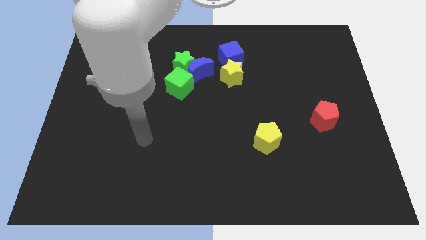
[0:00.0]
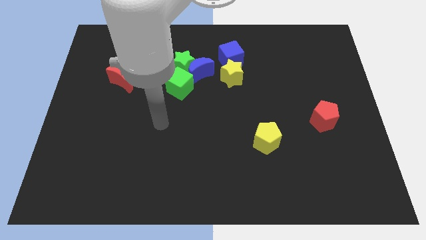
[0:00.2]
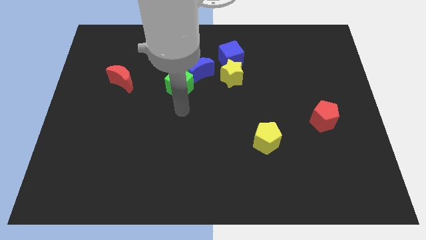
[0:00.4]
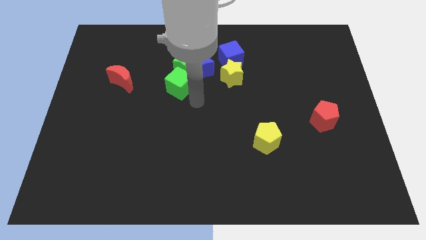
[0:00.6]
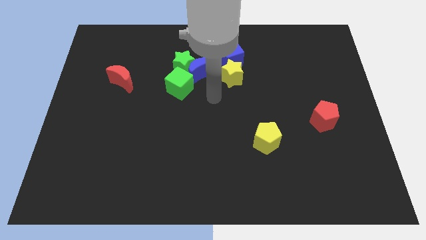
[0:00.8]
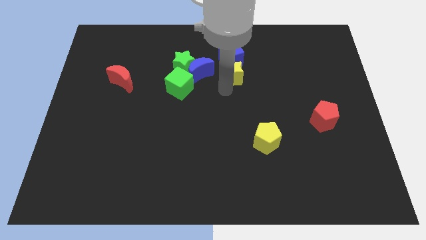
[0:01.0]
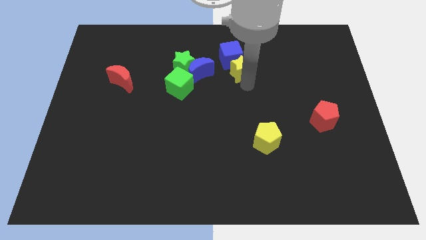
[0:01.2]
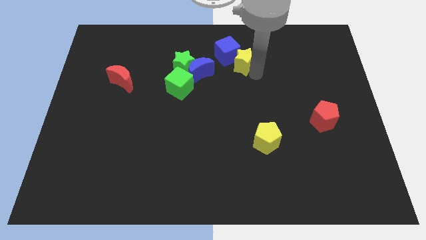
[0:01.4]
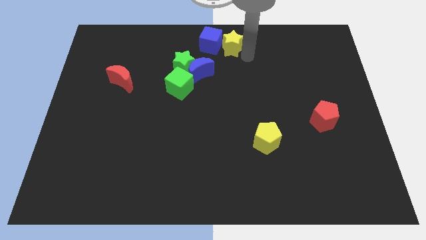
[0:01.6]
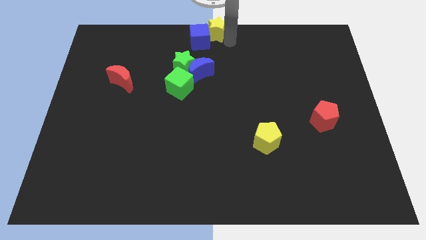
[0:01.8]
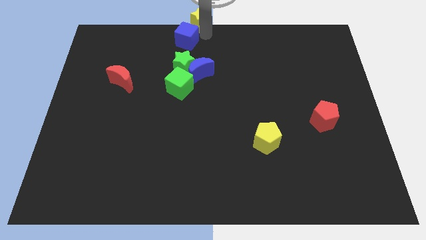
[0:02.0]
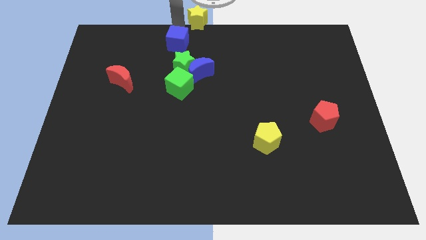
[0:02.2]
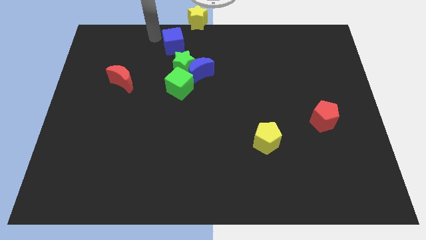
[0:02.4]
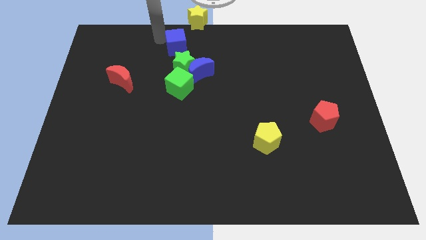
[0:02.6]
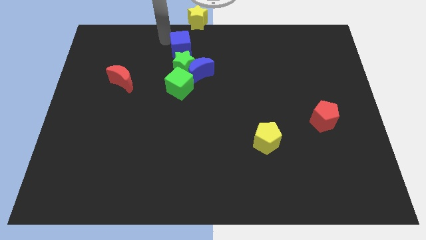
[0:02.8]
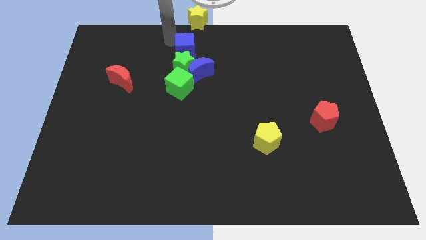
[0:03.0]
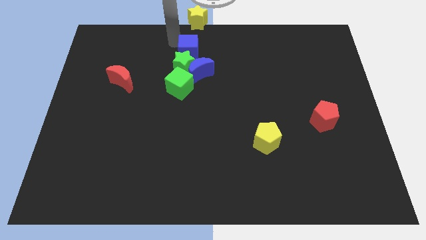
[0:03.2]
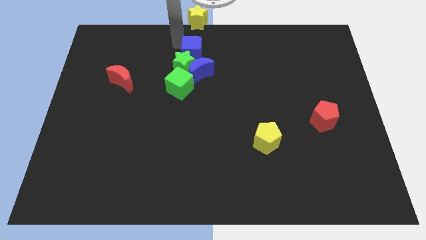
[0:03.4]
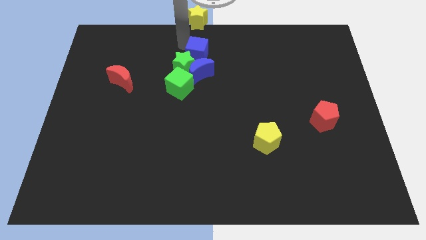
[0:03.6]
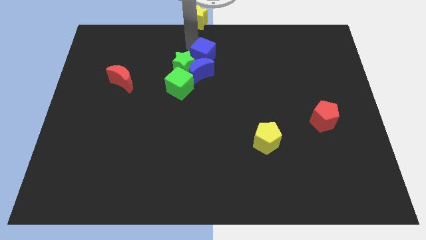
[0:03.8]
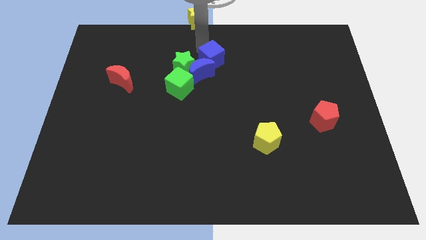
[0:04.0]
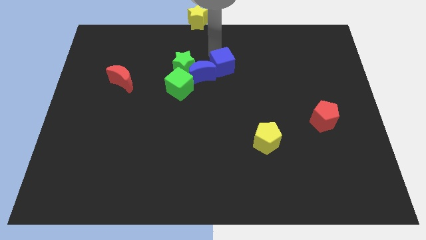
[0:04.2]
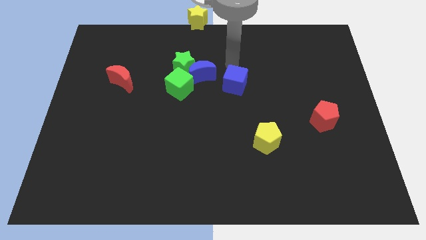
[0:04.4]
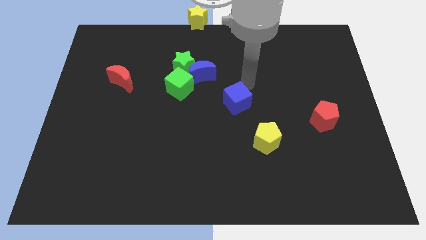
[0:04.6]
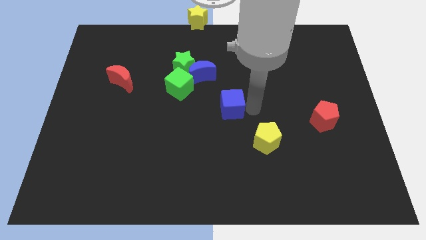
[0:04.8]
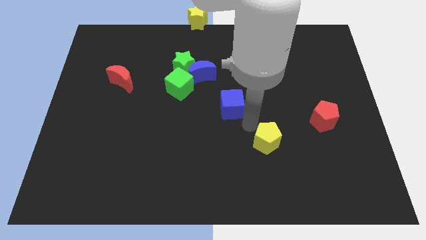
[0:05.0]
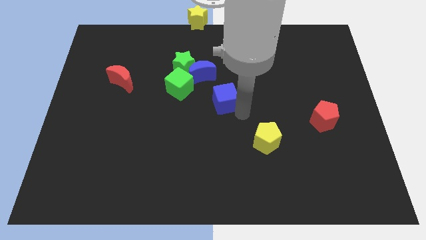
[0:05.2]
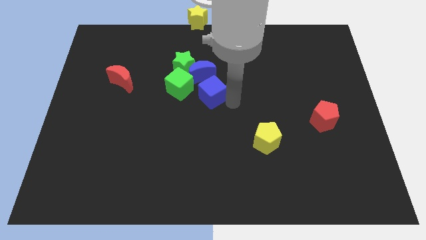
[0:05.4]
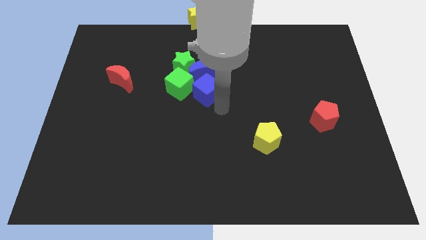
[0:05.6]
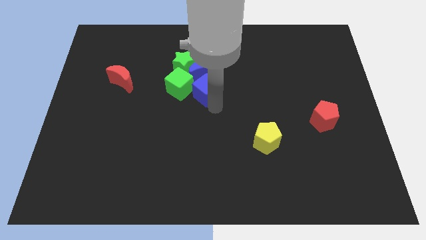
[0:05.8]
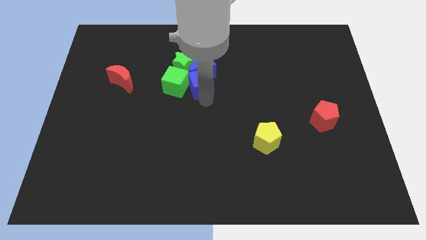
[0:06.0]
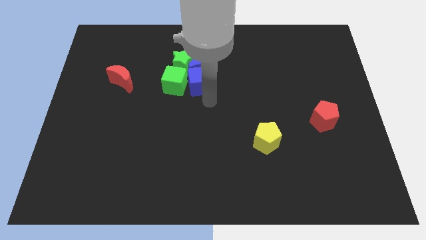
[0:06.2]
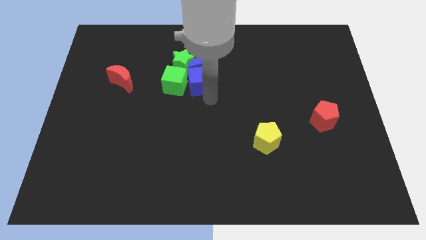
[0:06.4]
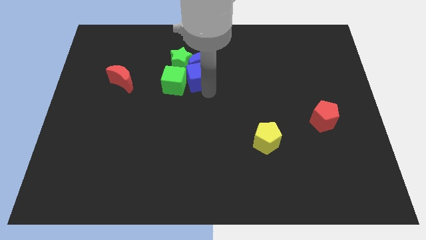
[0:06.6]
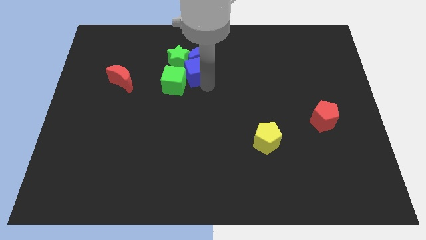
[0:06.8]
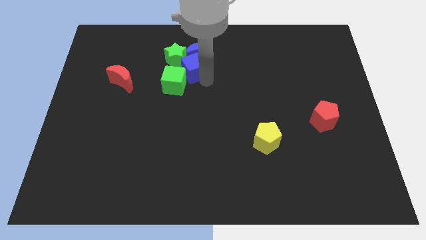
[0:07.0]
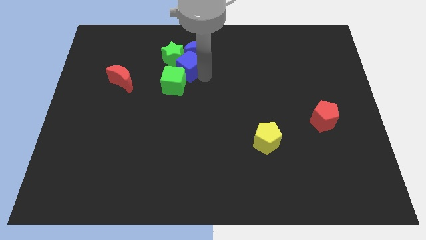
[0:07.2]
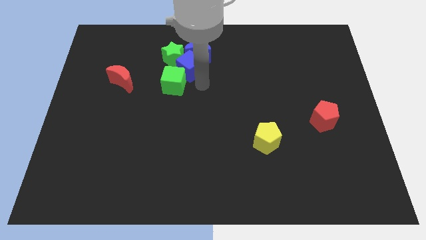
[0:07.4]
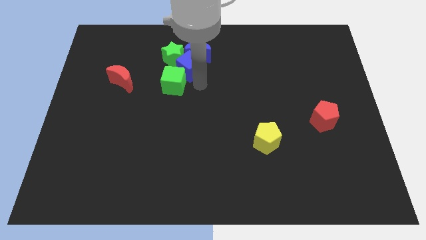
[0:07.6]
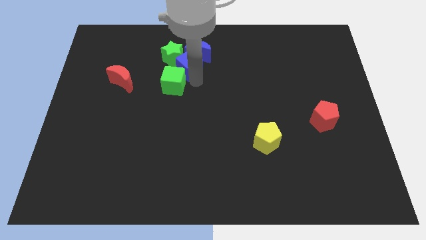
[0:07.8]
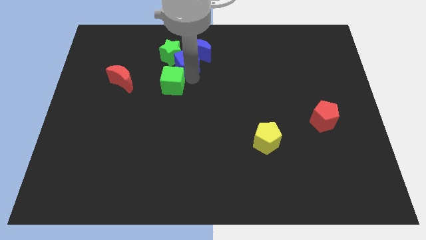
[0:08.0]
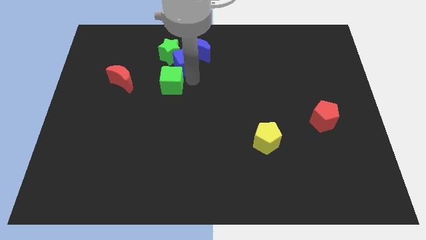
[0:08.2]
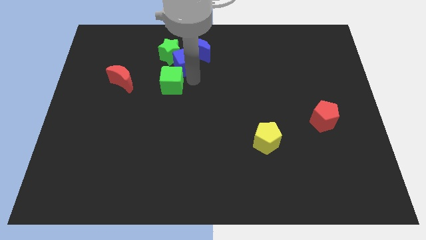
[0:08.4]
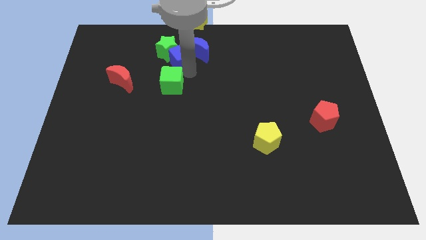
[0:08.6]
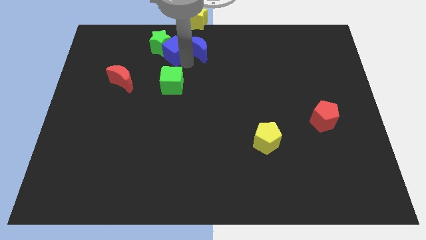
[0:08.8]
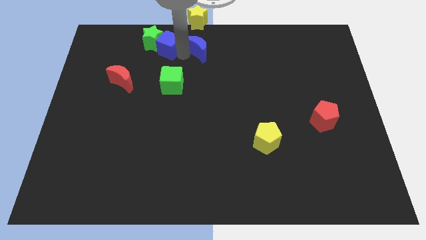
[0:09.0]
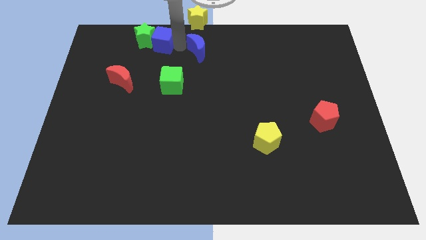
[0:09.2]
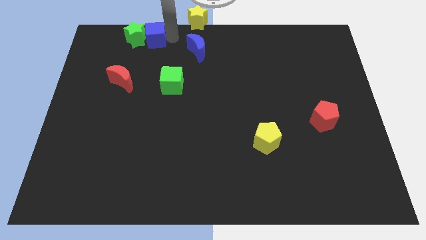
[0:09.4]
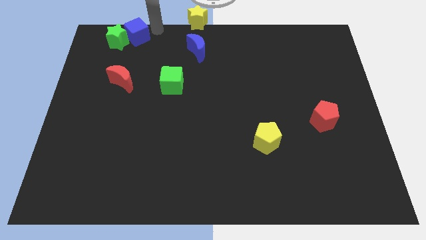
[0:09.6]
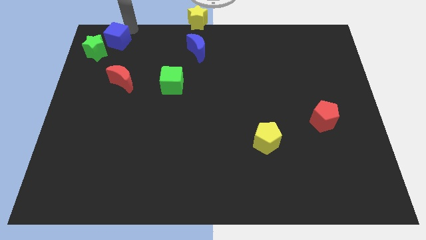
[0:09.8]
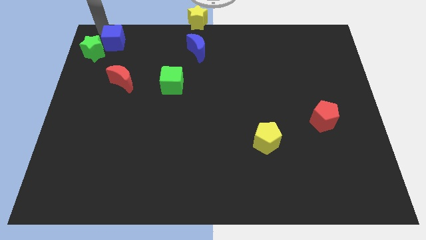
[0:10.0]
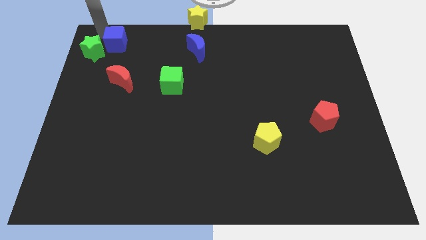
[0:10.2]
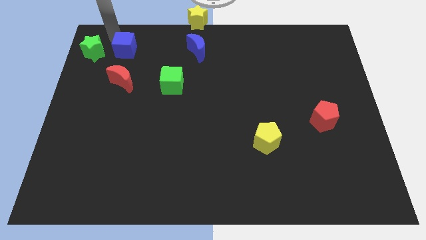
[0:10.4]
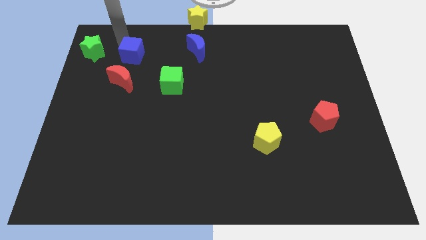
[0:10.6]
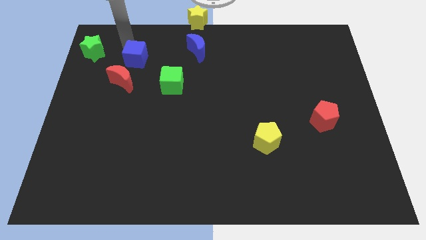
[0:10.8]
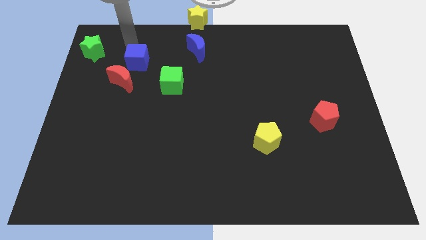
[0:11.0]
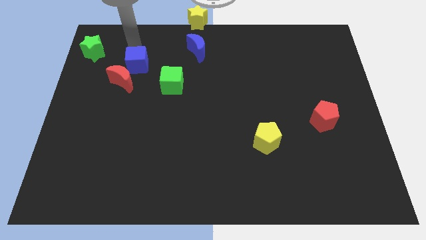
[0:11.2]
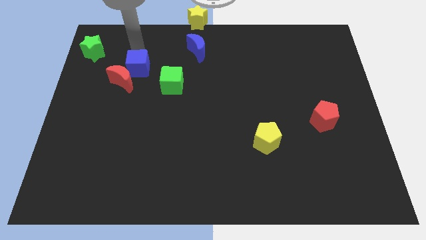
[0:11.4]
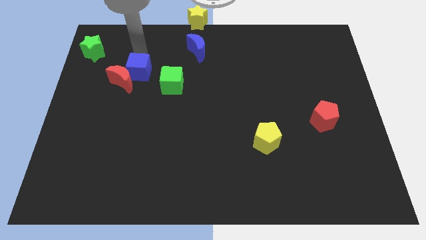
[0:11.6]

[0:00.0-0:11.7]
move the blue cube just left of the green cube

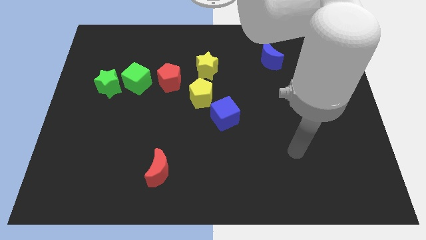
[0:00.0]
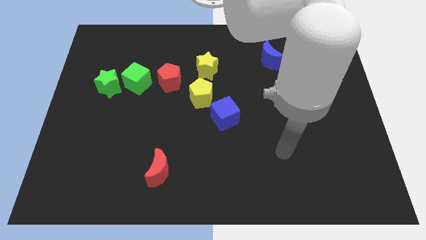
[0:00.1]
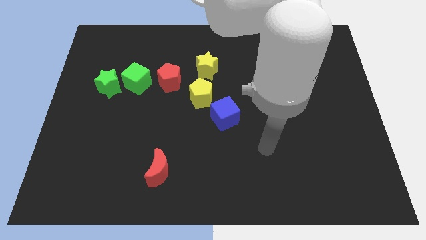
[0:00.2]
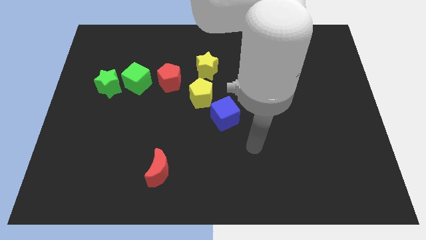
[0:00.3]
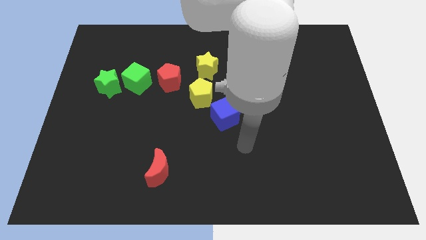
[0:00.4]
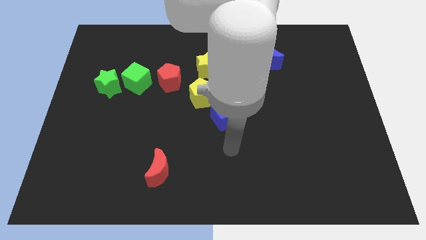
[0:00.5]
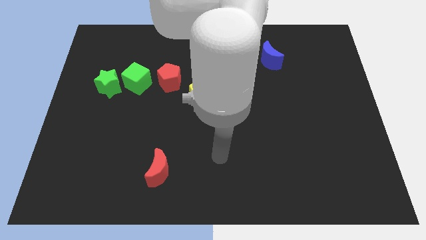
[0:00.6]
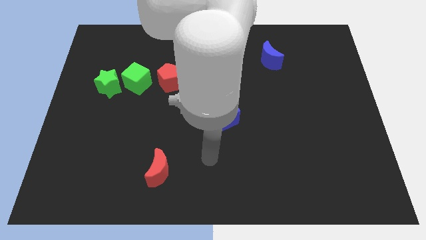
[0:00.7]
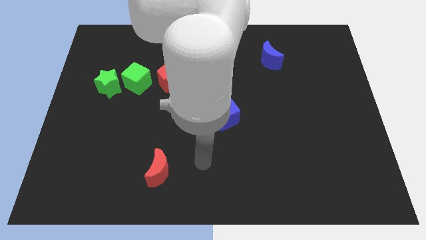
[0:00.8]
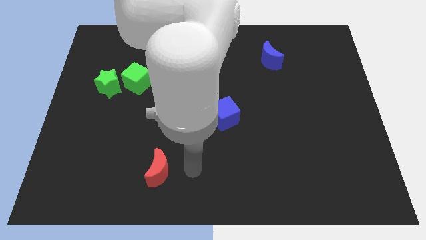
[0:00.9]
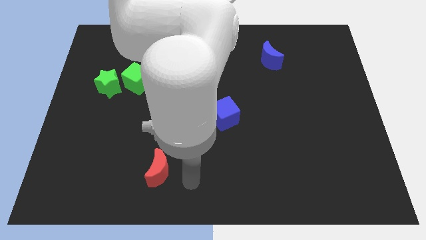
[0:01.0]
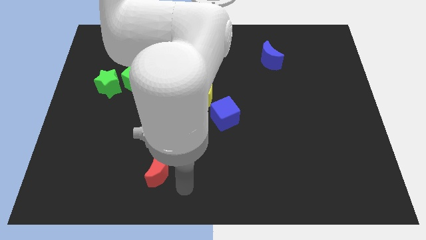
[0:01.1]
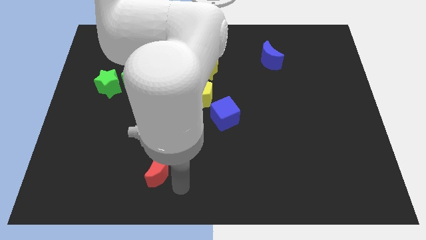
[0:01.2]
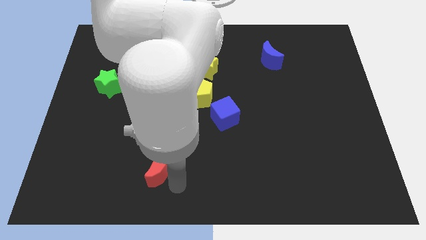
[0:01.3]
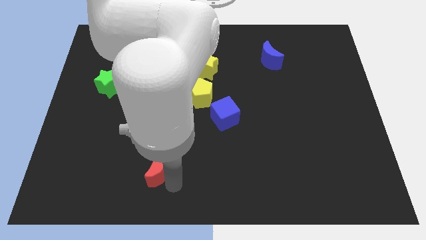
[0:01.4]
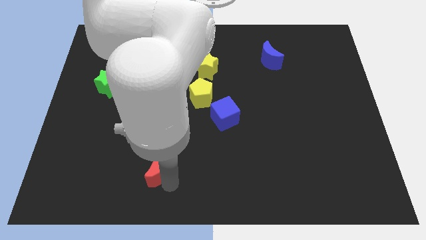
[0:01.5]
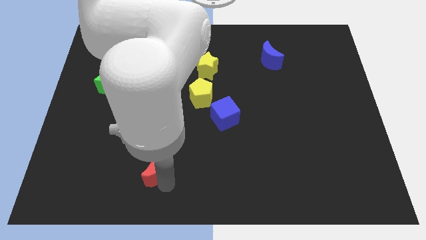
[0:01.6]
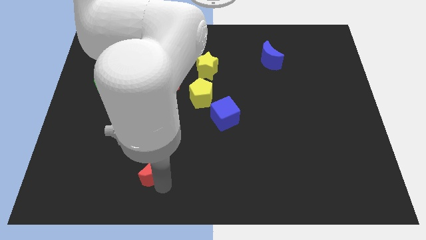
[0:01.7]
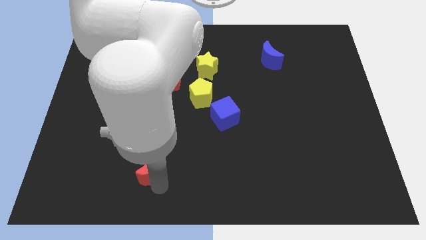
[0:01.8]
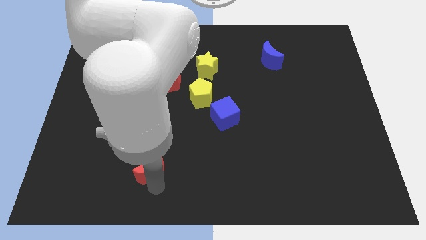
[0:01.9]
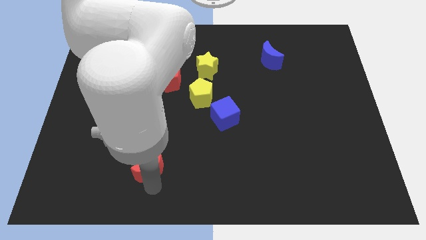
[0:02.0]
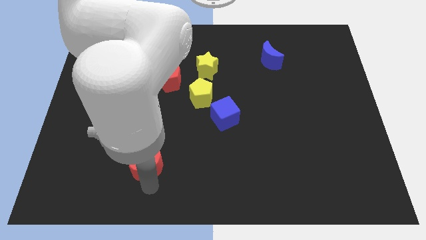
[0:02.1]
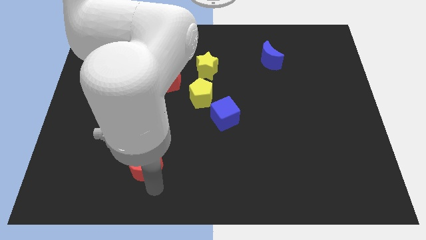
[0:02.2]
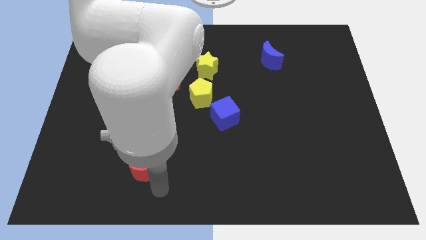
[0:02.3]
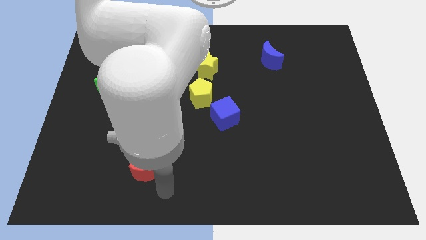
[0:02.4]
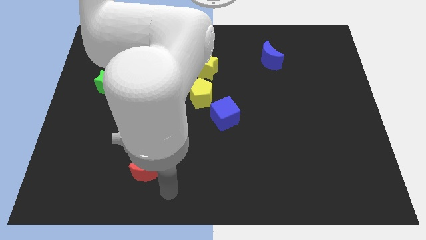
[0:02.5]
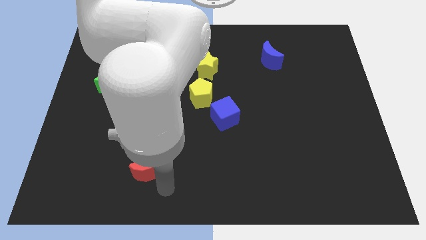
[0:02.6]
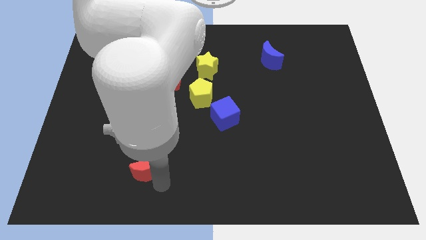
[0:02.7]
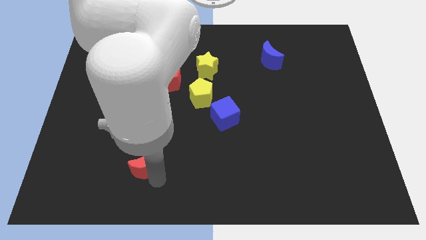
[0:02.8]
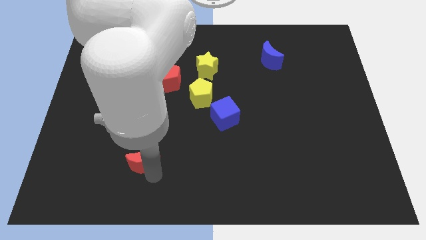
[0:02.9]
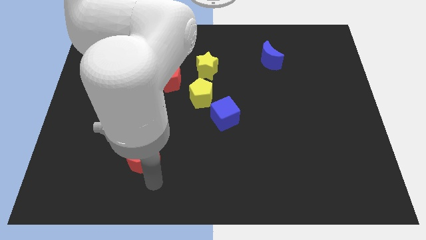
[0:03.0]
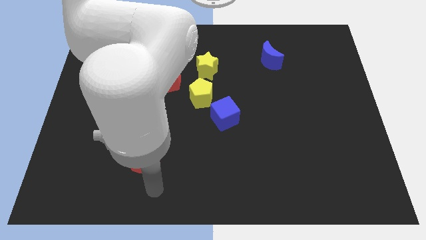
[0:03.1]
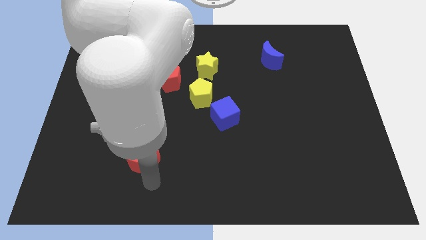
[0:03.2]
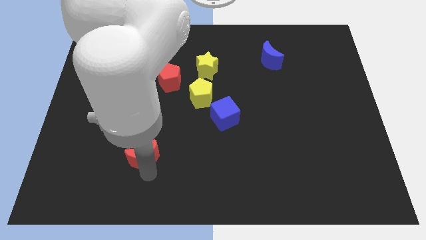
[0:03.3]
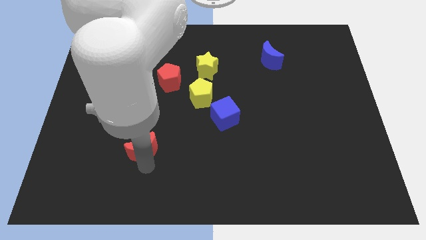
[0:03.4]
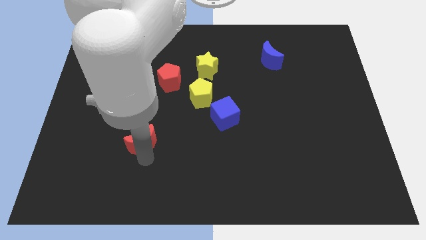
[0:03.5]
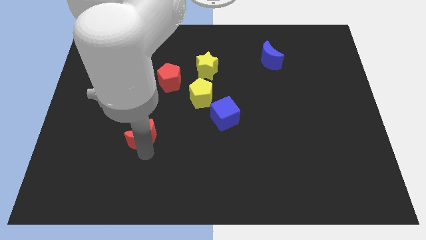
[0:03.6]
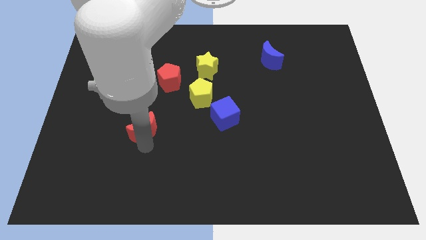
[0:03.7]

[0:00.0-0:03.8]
move the red moon to the bottom of the green cube
